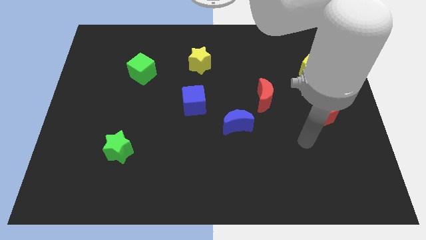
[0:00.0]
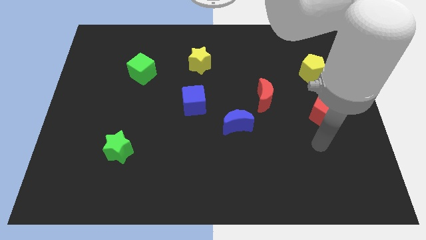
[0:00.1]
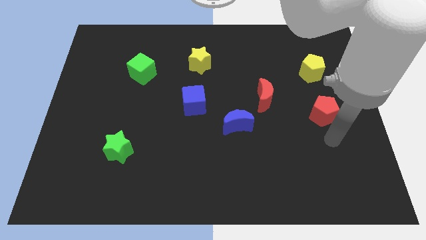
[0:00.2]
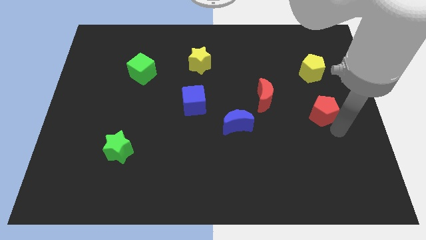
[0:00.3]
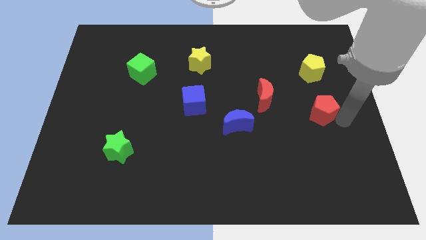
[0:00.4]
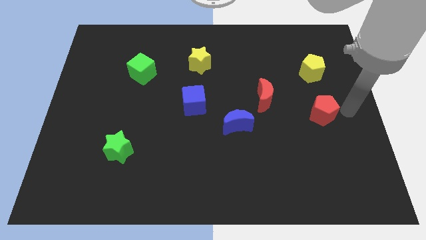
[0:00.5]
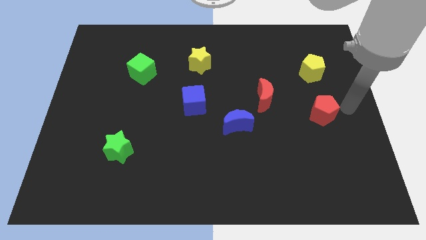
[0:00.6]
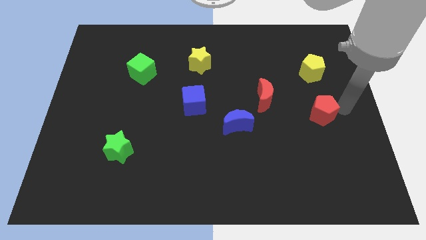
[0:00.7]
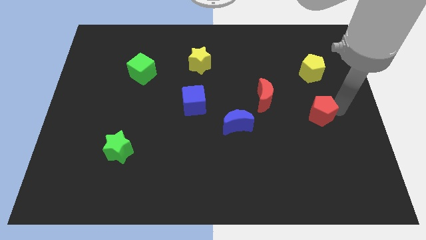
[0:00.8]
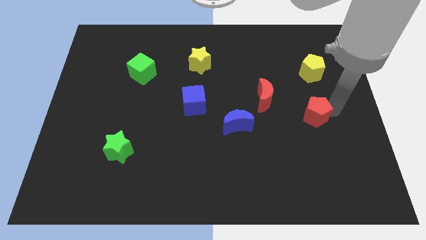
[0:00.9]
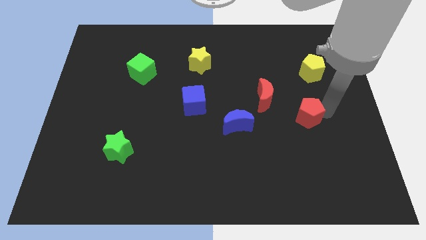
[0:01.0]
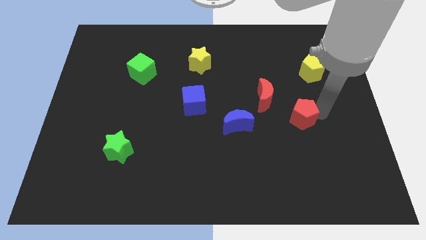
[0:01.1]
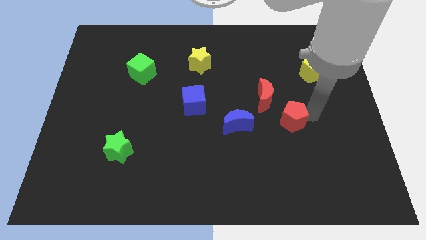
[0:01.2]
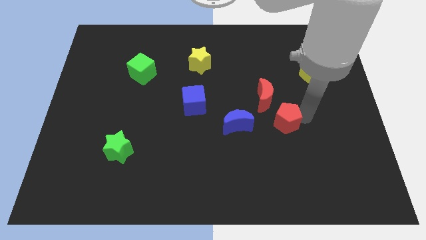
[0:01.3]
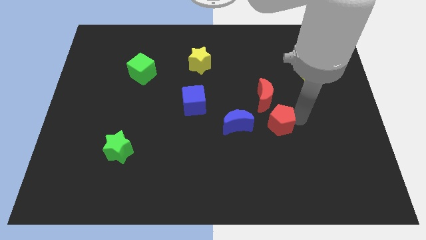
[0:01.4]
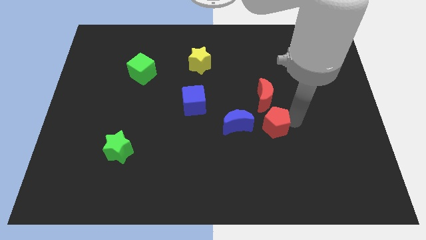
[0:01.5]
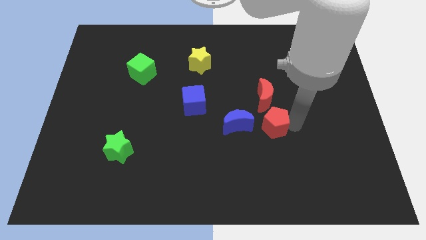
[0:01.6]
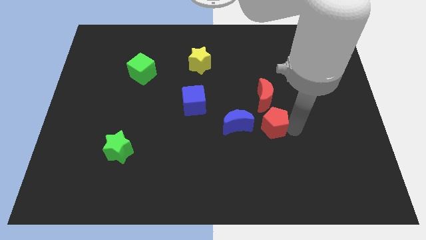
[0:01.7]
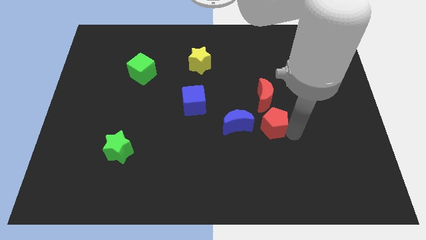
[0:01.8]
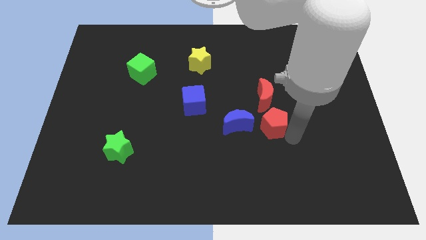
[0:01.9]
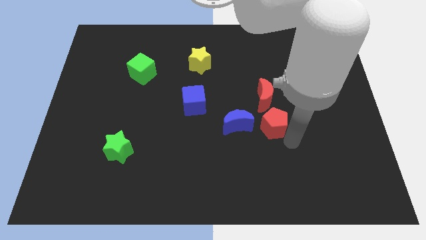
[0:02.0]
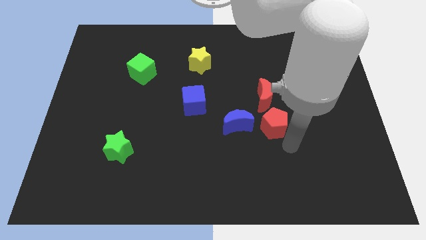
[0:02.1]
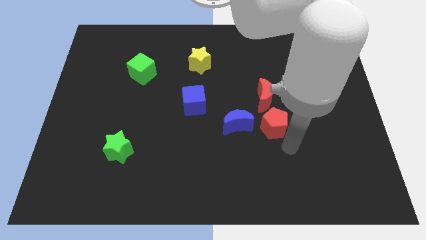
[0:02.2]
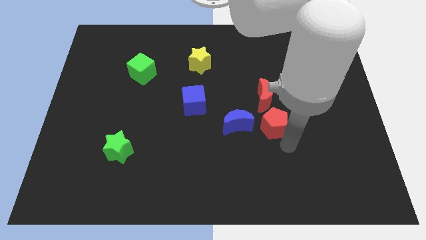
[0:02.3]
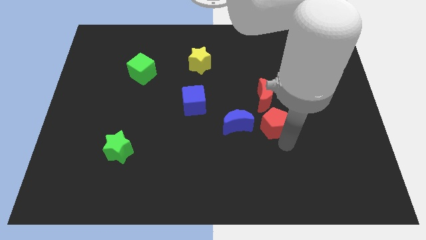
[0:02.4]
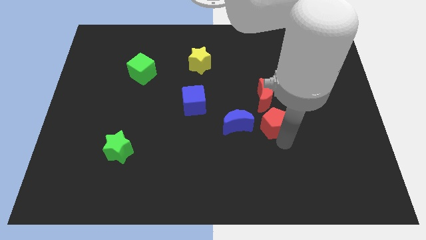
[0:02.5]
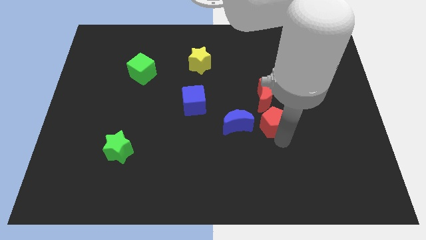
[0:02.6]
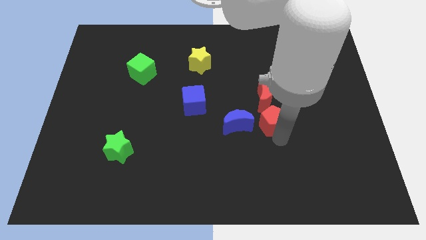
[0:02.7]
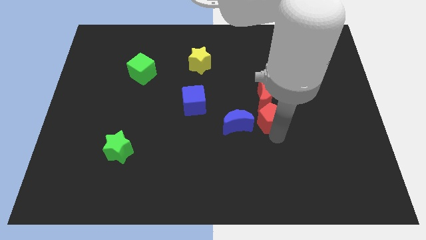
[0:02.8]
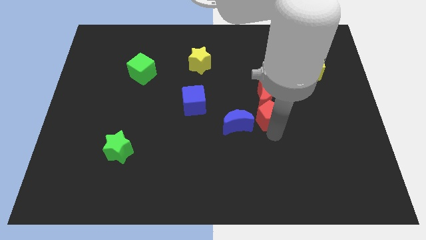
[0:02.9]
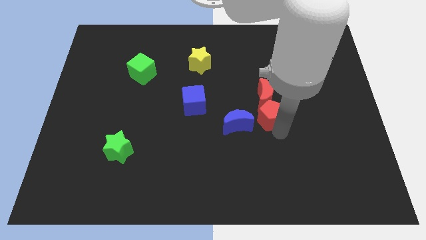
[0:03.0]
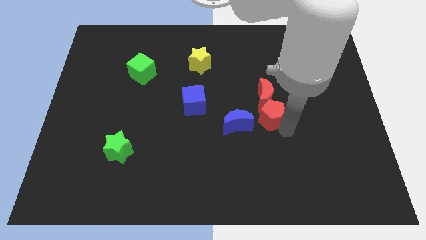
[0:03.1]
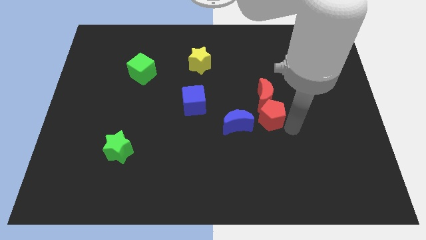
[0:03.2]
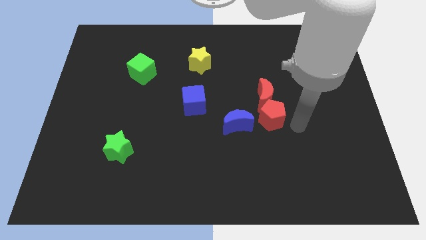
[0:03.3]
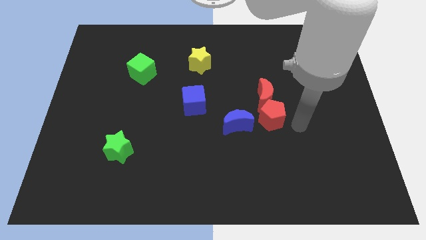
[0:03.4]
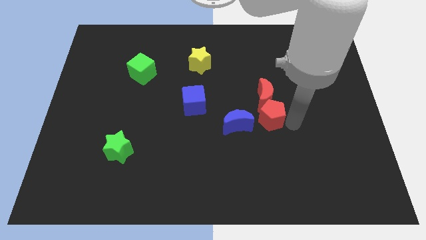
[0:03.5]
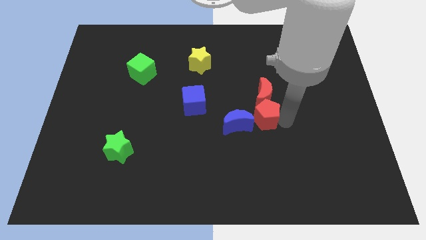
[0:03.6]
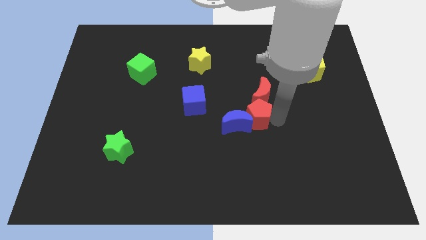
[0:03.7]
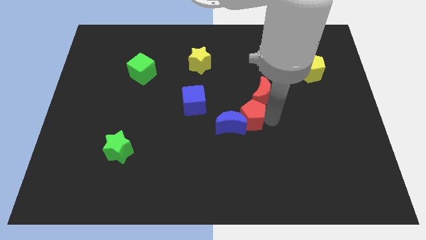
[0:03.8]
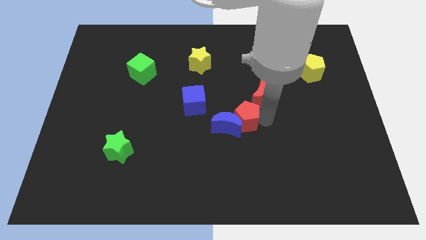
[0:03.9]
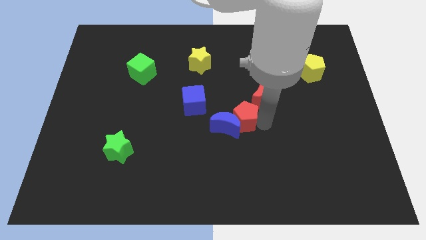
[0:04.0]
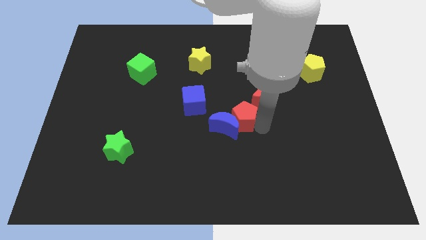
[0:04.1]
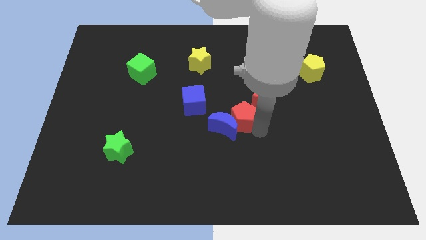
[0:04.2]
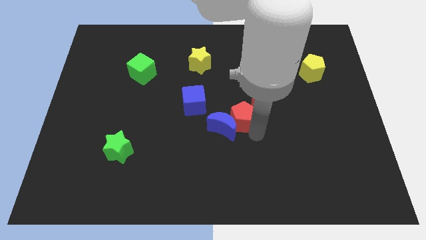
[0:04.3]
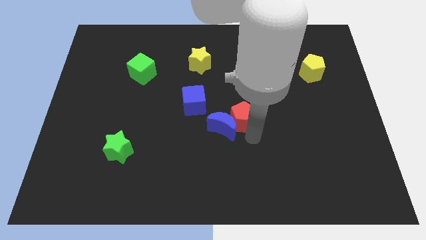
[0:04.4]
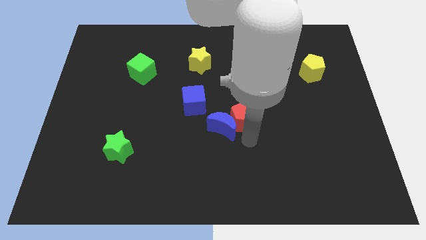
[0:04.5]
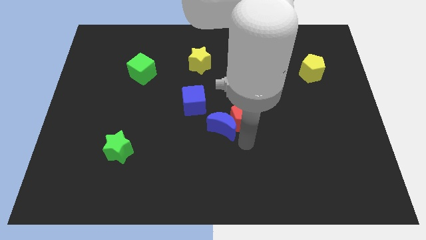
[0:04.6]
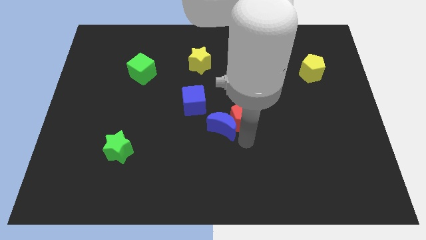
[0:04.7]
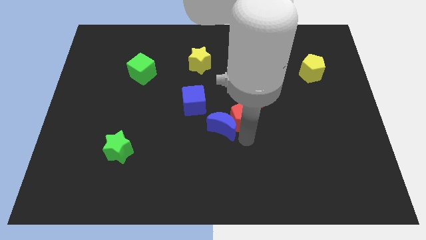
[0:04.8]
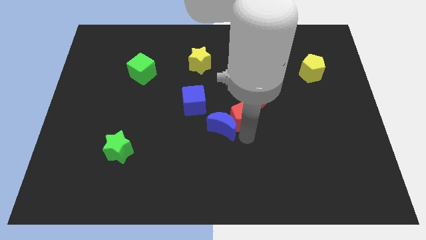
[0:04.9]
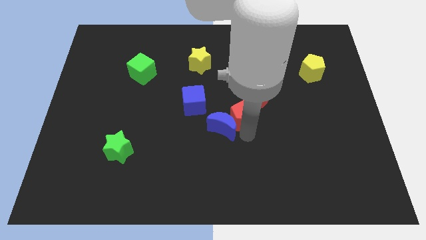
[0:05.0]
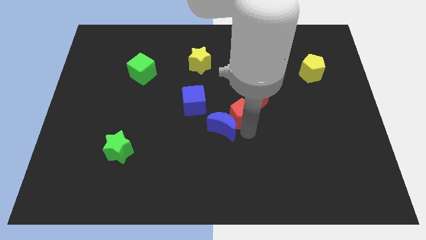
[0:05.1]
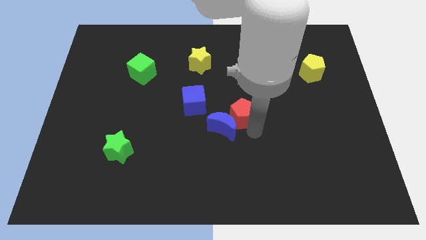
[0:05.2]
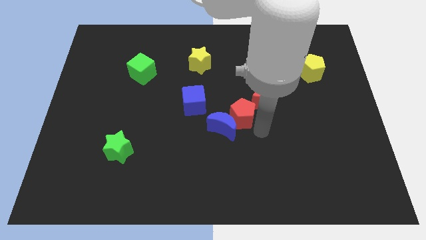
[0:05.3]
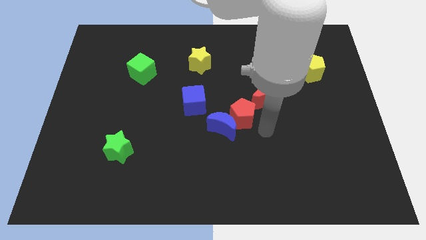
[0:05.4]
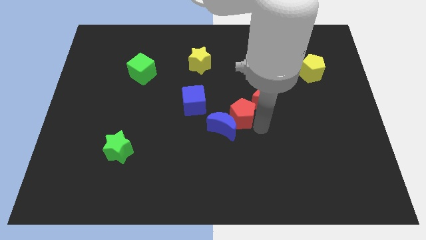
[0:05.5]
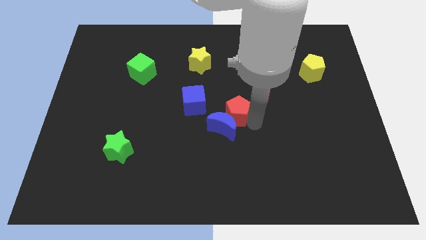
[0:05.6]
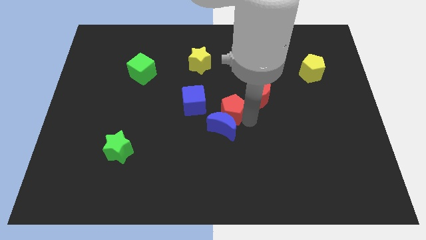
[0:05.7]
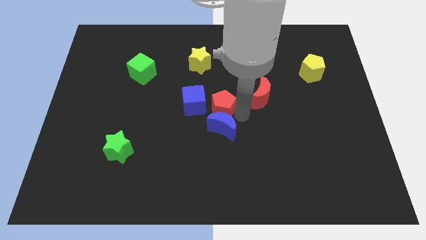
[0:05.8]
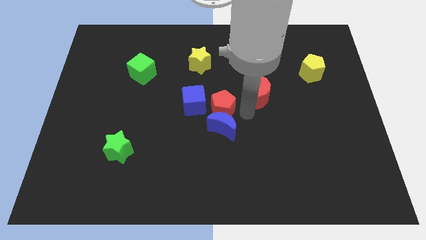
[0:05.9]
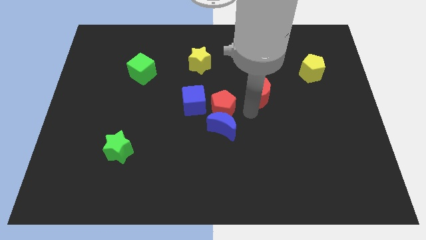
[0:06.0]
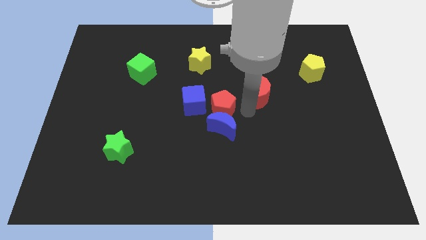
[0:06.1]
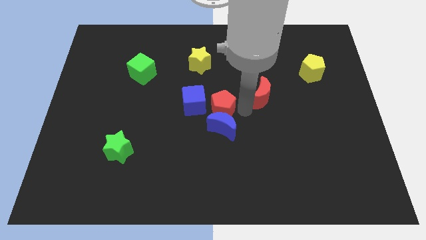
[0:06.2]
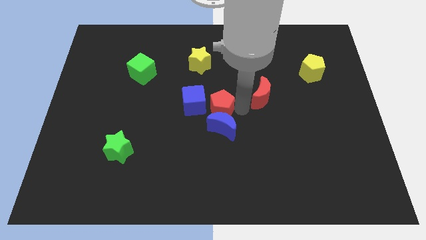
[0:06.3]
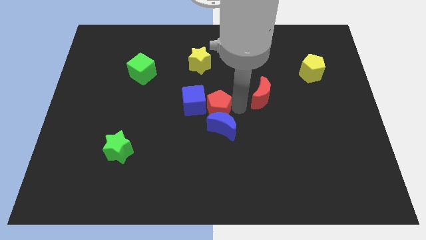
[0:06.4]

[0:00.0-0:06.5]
slide the red pentagon to the blue cube

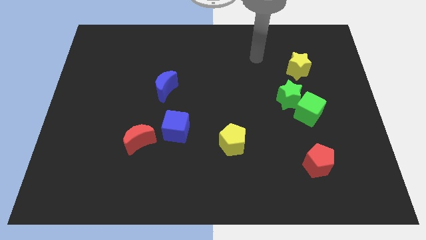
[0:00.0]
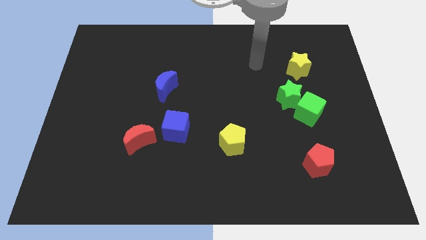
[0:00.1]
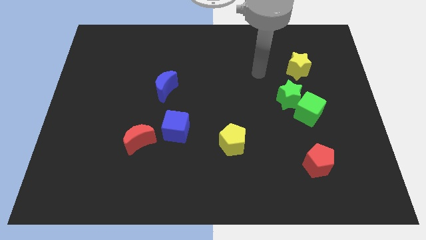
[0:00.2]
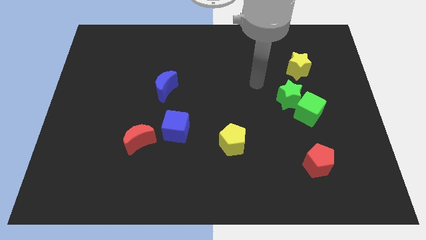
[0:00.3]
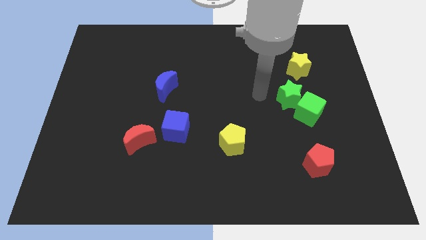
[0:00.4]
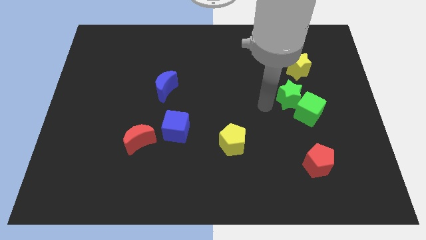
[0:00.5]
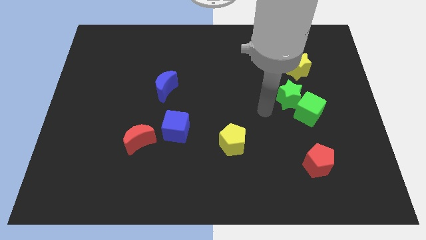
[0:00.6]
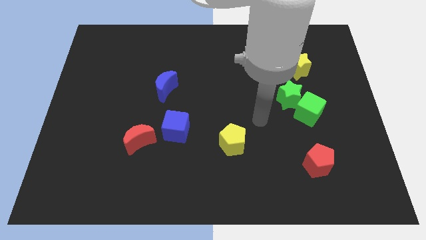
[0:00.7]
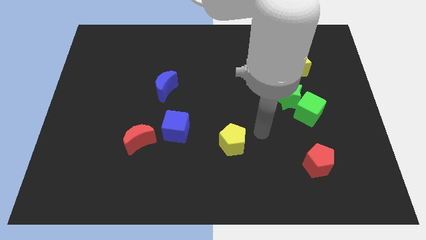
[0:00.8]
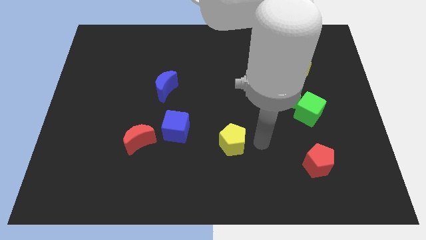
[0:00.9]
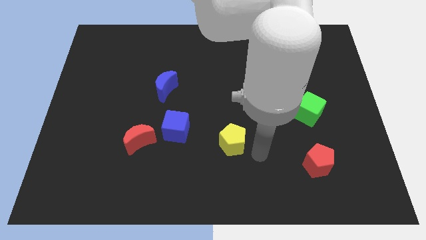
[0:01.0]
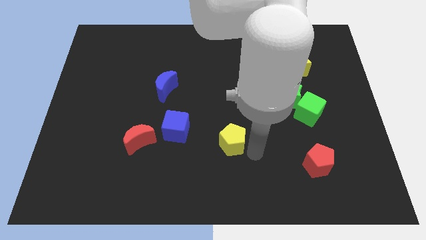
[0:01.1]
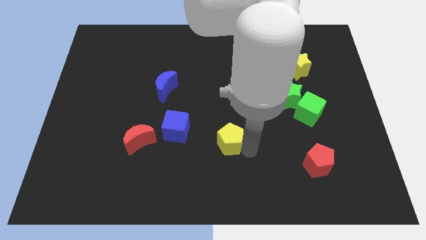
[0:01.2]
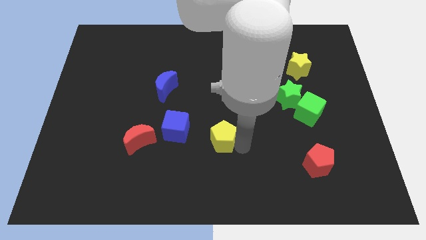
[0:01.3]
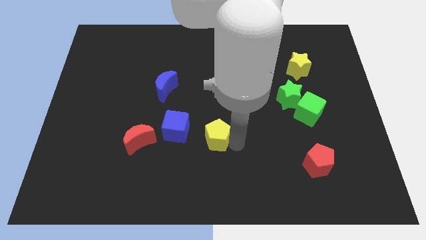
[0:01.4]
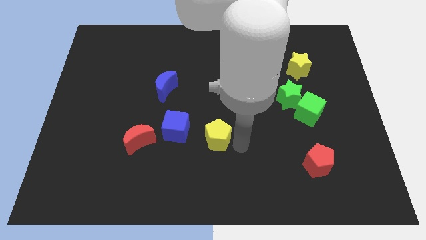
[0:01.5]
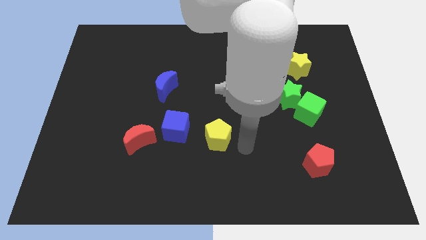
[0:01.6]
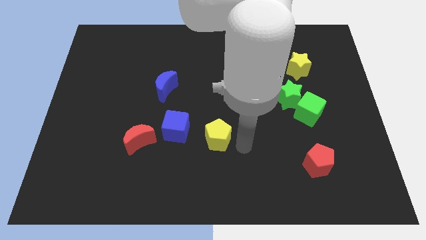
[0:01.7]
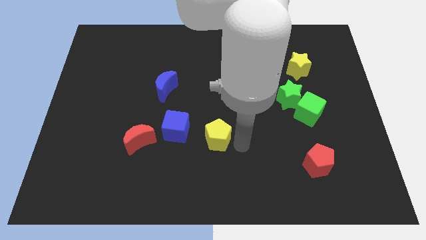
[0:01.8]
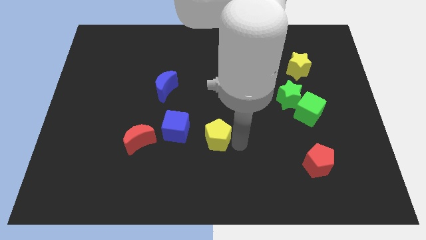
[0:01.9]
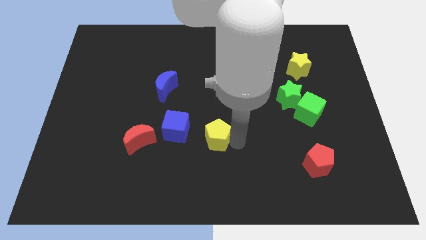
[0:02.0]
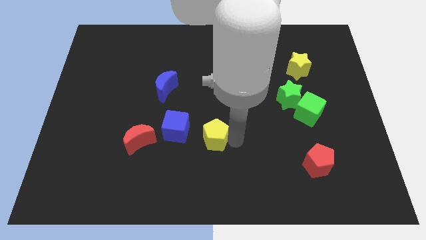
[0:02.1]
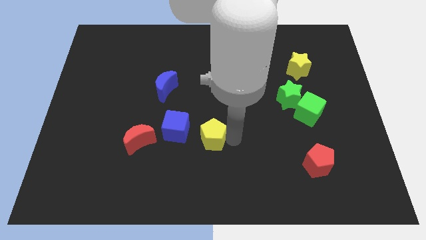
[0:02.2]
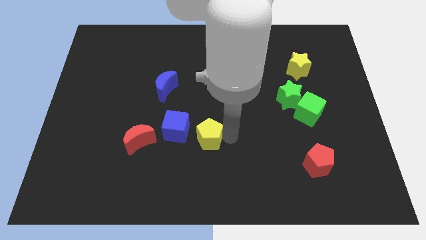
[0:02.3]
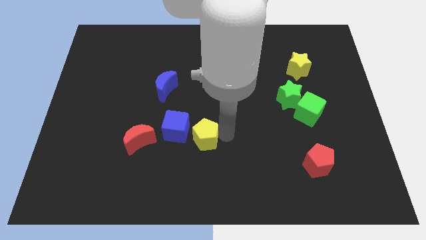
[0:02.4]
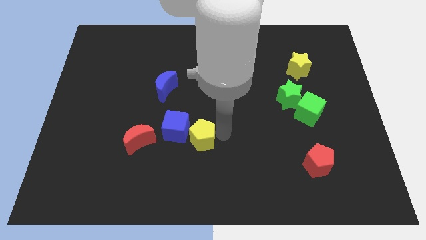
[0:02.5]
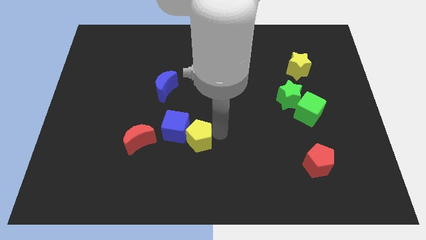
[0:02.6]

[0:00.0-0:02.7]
push the yellow pentagon next to the blue cube
